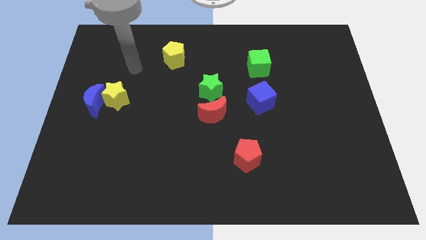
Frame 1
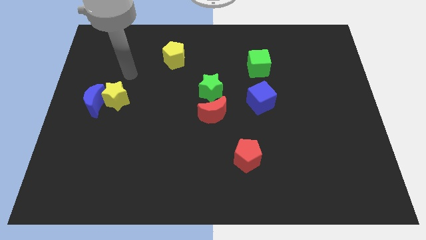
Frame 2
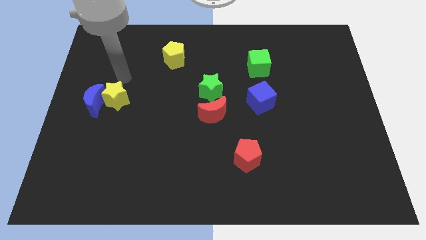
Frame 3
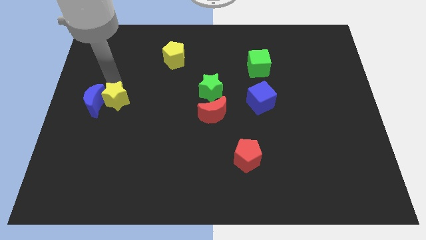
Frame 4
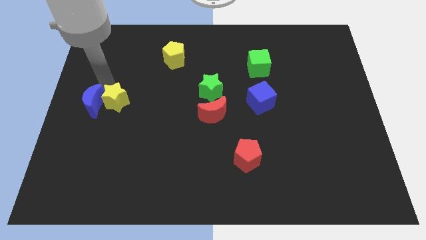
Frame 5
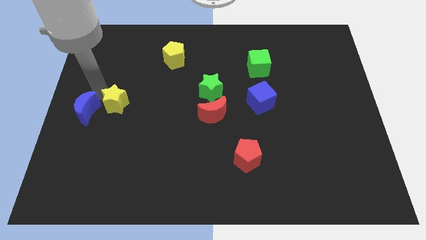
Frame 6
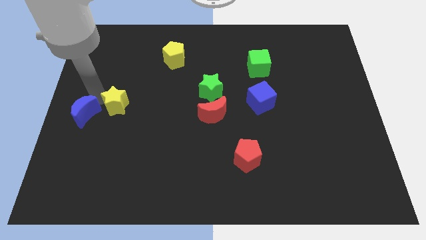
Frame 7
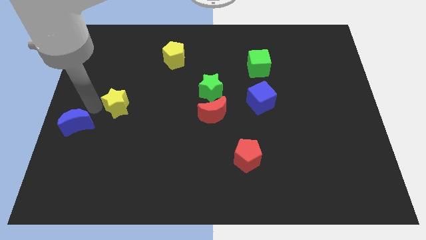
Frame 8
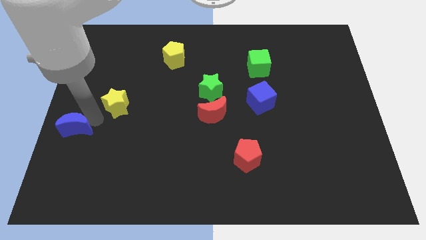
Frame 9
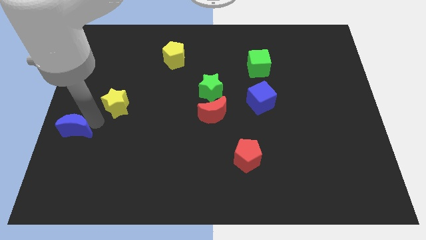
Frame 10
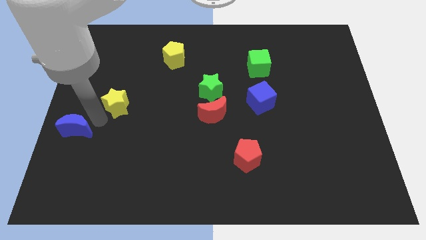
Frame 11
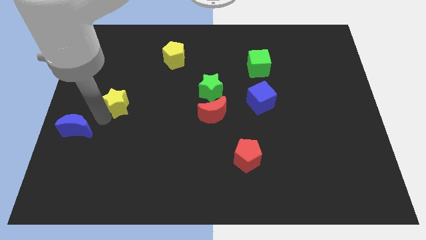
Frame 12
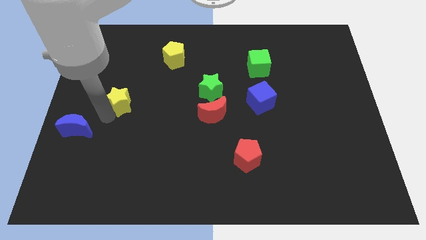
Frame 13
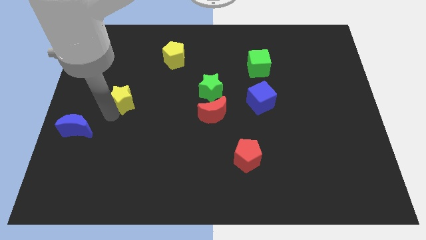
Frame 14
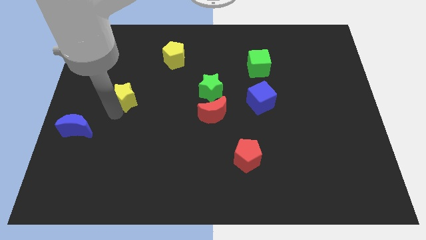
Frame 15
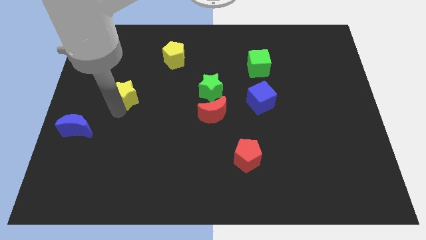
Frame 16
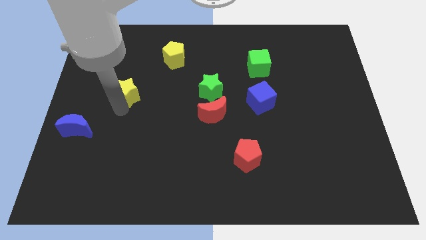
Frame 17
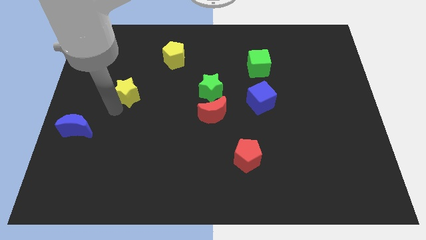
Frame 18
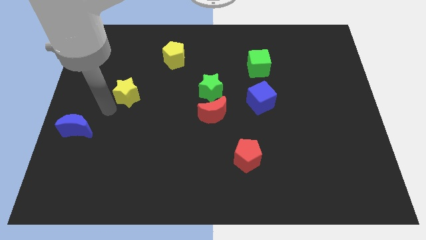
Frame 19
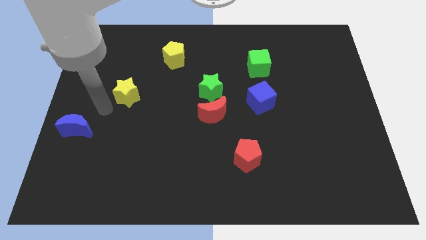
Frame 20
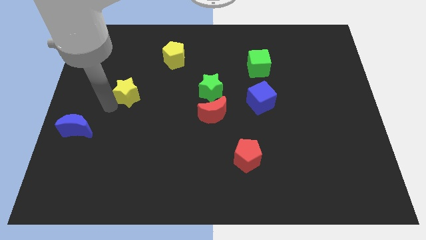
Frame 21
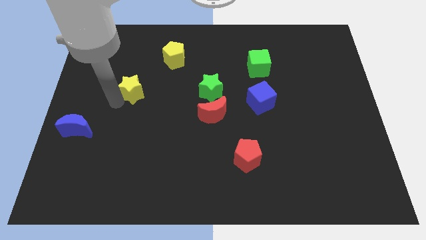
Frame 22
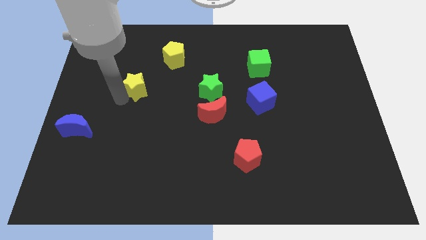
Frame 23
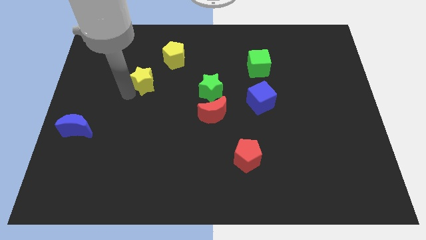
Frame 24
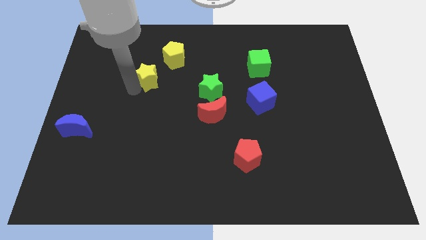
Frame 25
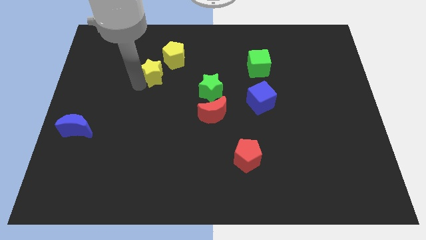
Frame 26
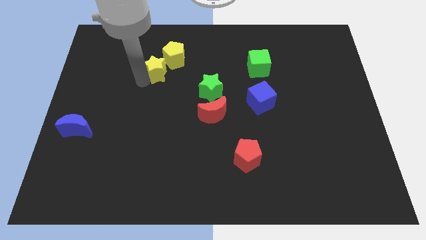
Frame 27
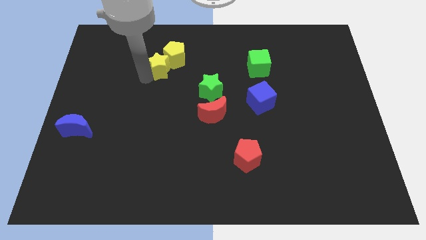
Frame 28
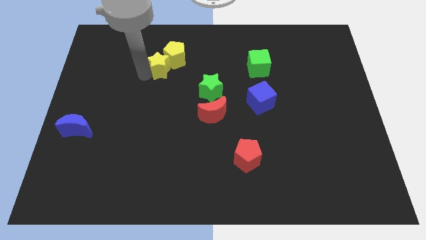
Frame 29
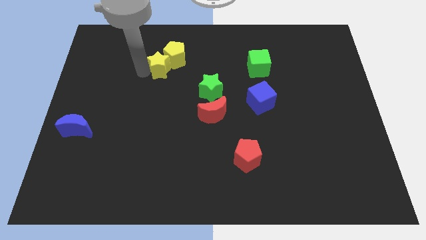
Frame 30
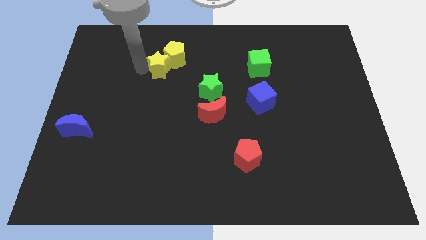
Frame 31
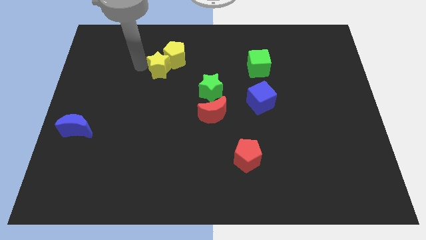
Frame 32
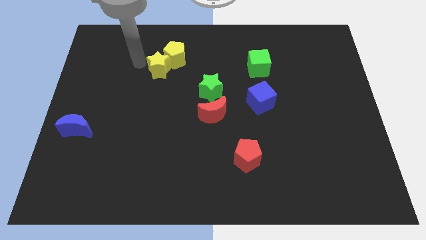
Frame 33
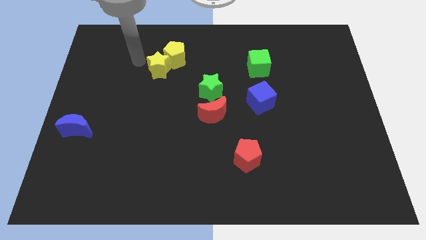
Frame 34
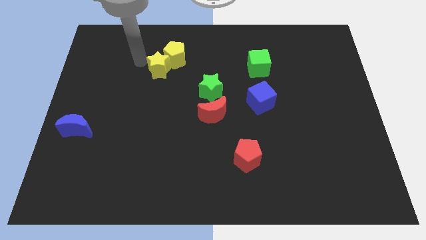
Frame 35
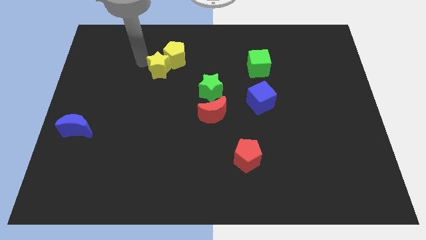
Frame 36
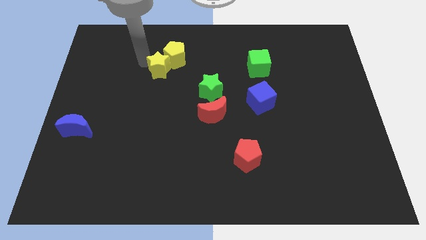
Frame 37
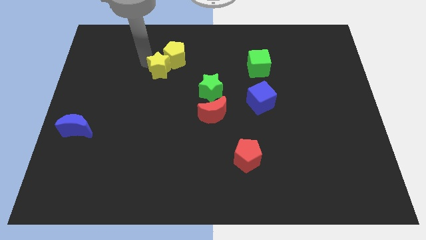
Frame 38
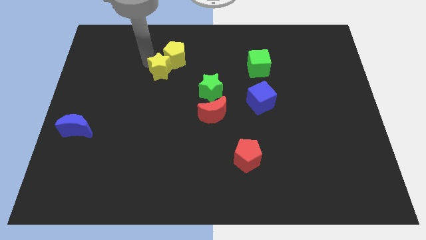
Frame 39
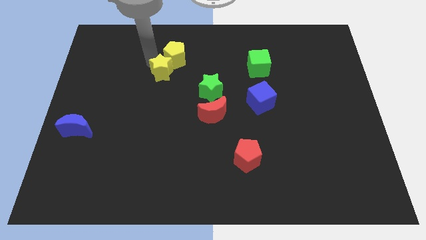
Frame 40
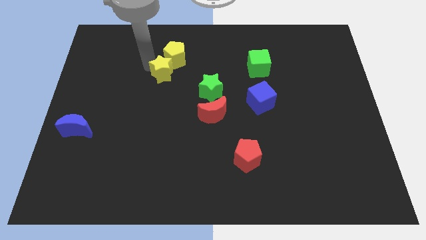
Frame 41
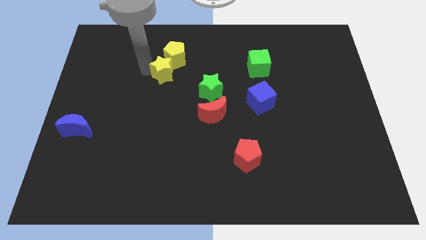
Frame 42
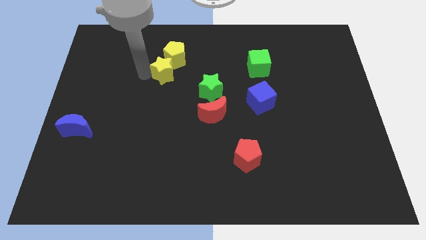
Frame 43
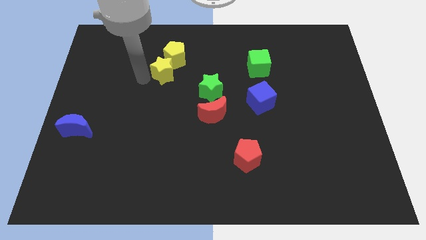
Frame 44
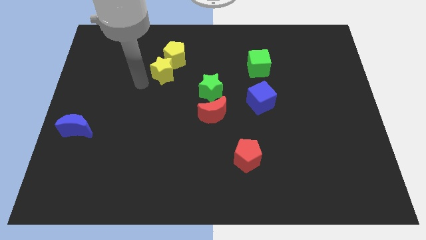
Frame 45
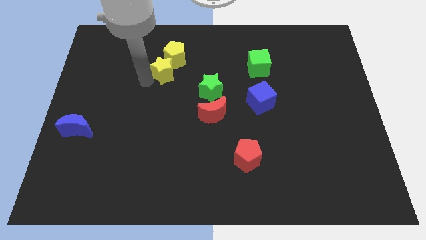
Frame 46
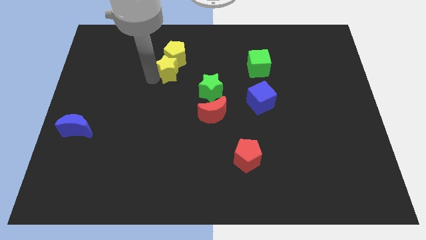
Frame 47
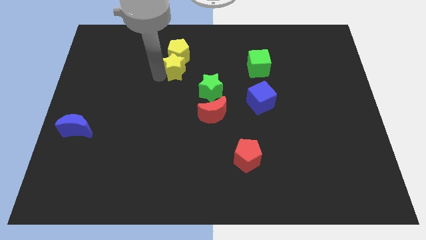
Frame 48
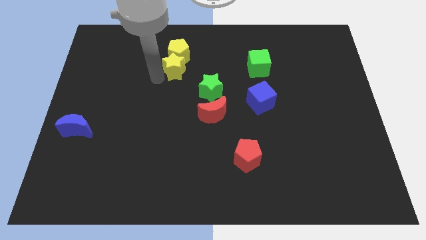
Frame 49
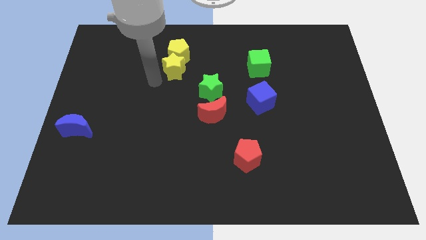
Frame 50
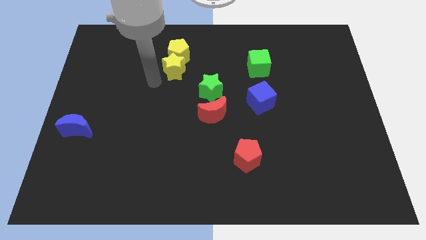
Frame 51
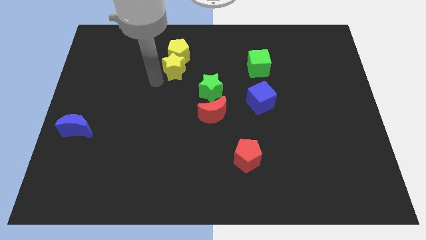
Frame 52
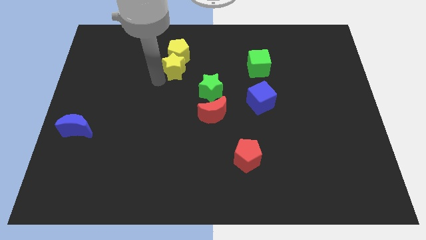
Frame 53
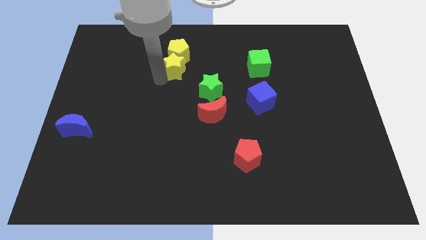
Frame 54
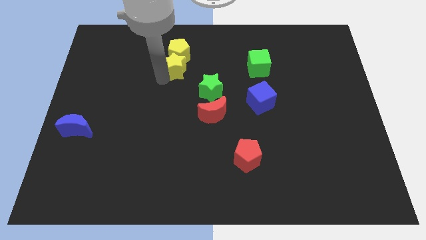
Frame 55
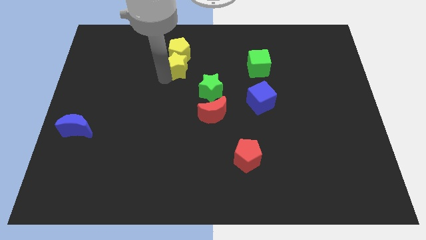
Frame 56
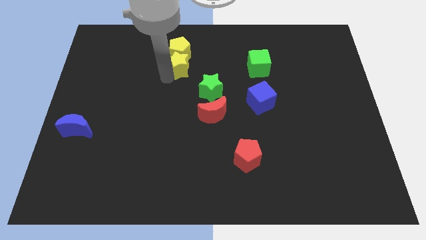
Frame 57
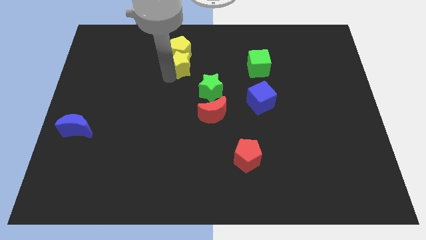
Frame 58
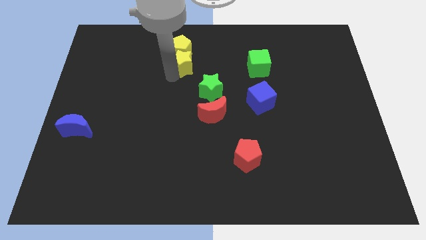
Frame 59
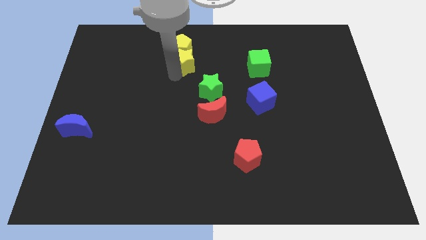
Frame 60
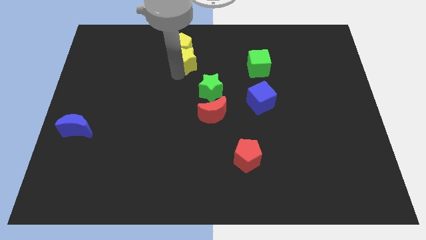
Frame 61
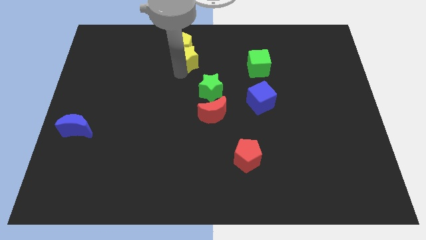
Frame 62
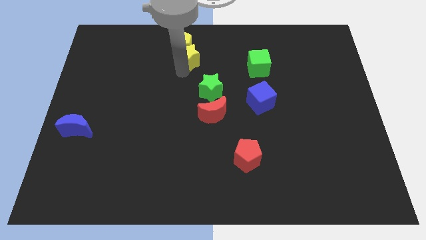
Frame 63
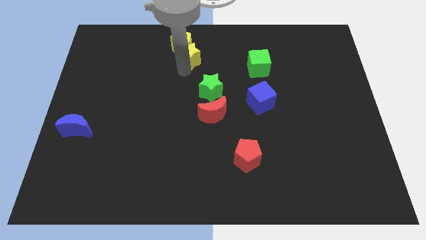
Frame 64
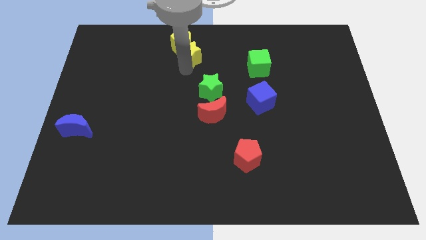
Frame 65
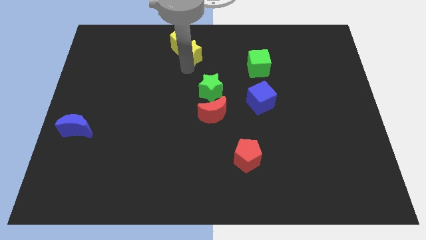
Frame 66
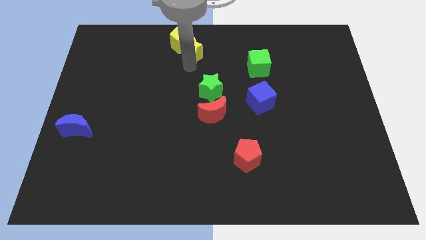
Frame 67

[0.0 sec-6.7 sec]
push the yellow star to the top side
